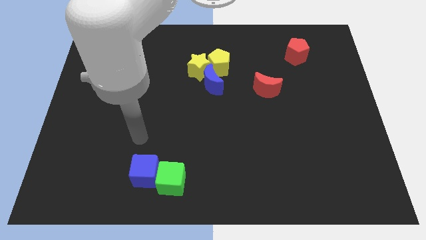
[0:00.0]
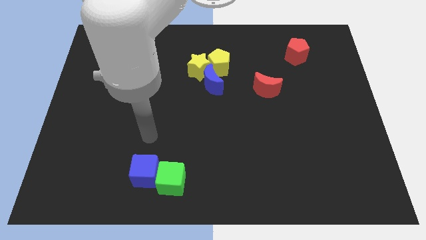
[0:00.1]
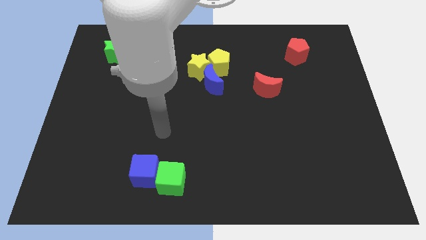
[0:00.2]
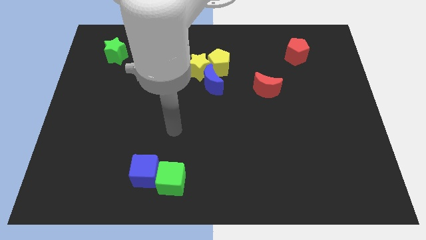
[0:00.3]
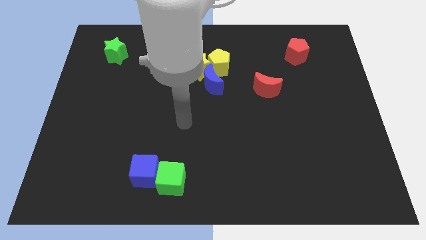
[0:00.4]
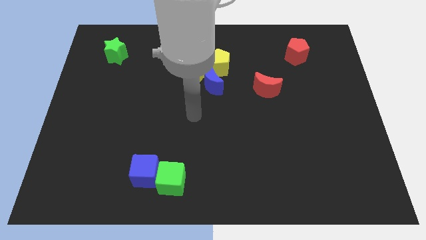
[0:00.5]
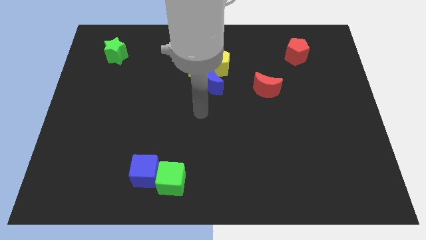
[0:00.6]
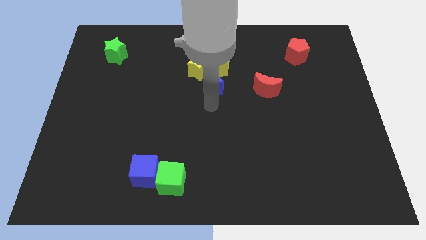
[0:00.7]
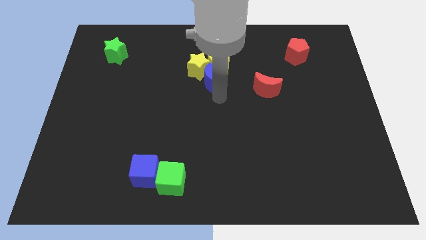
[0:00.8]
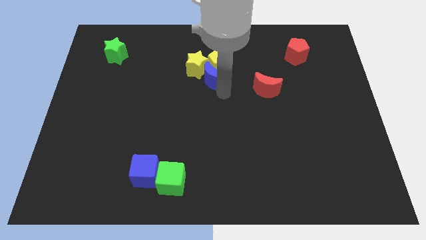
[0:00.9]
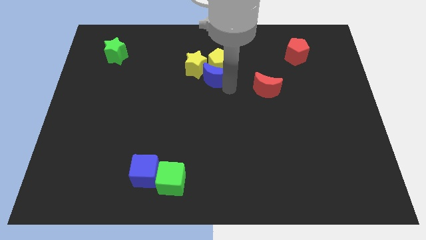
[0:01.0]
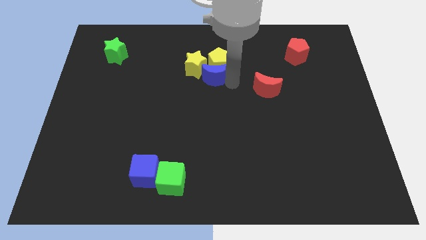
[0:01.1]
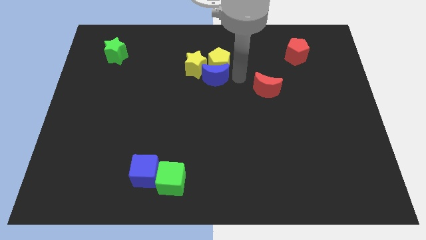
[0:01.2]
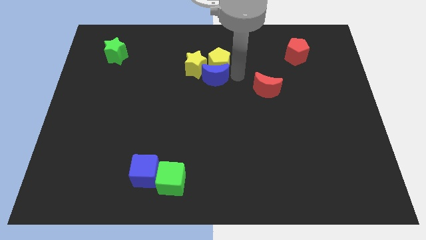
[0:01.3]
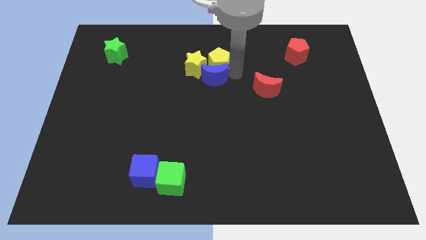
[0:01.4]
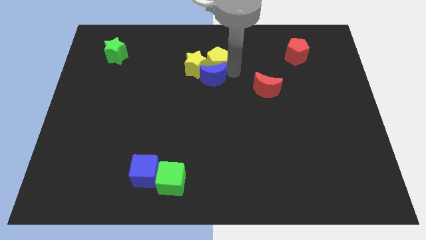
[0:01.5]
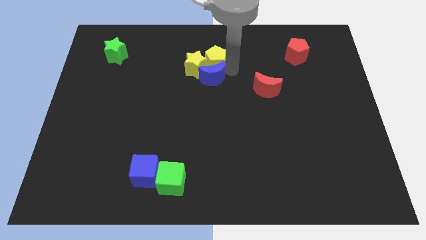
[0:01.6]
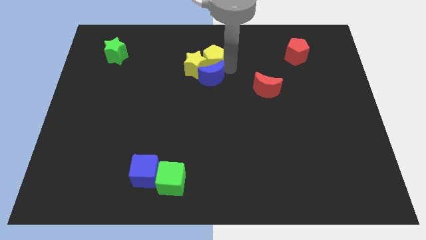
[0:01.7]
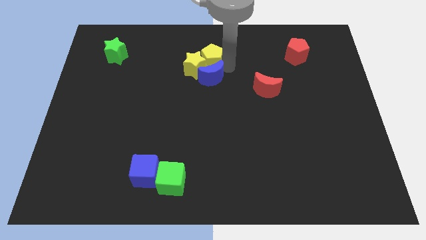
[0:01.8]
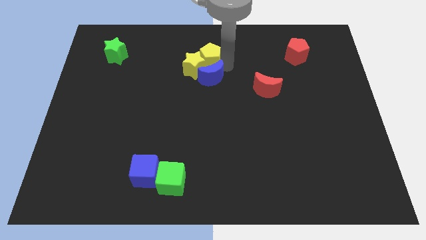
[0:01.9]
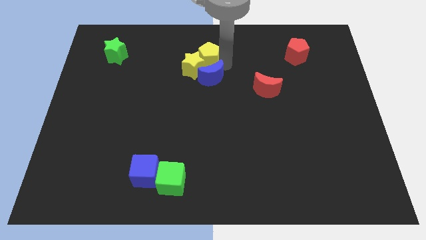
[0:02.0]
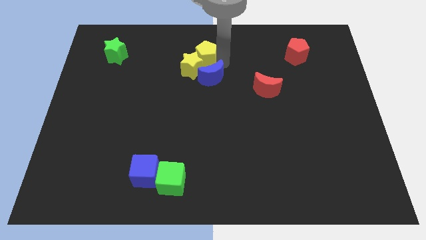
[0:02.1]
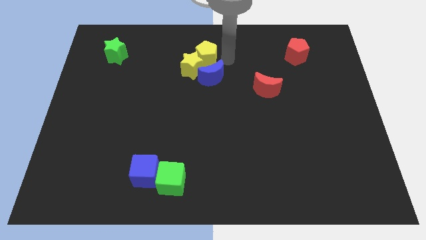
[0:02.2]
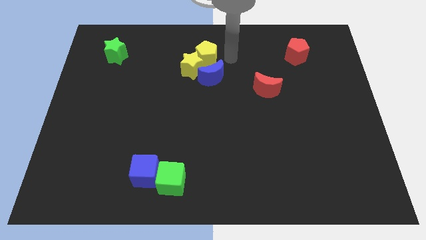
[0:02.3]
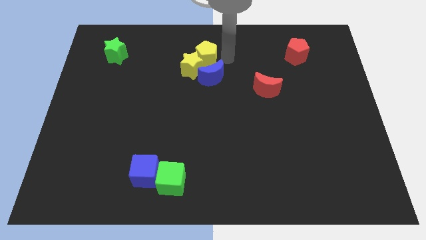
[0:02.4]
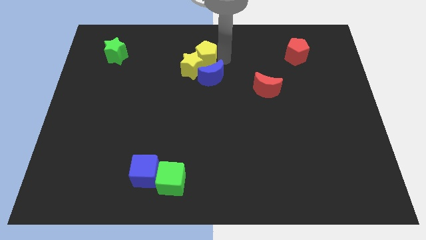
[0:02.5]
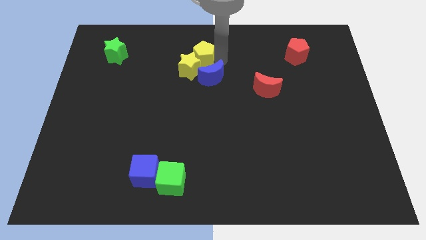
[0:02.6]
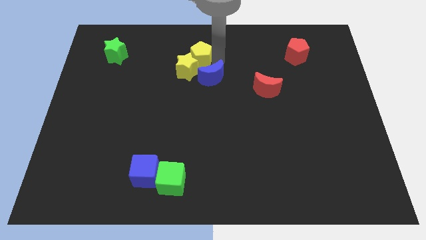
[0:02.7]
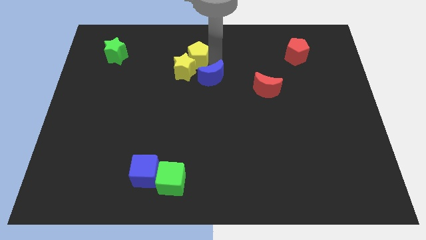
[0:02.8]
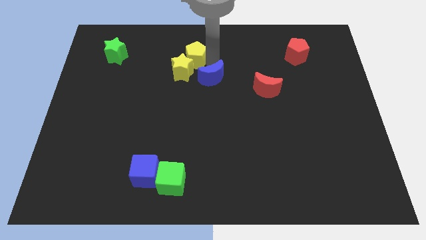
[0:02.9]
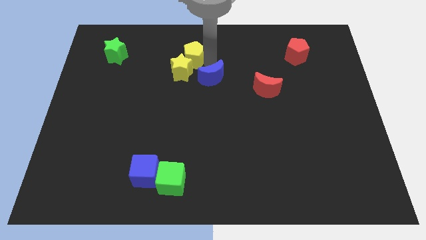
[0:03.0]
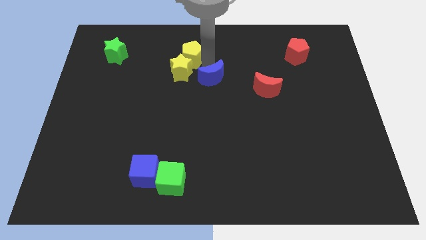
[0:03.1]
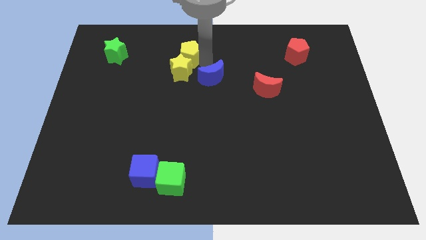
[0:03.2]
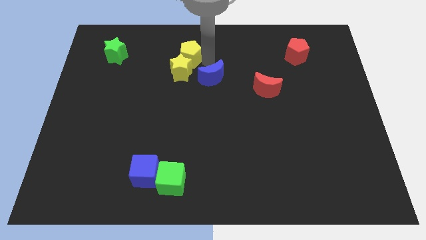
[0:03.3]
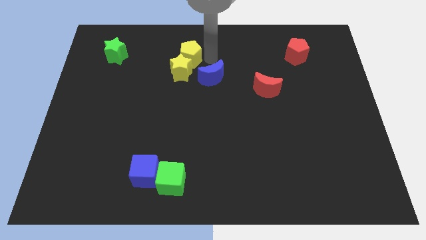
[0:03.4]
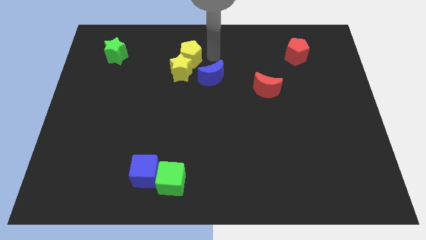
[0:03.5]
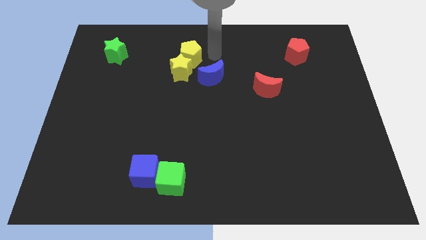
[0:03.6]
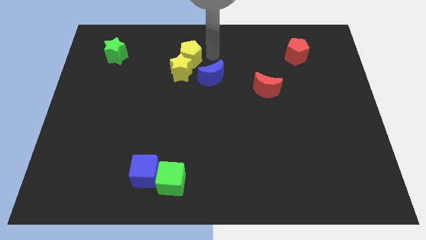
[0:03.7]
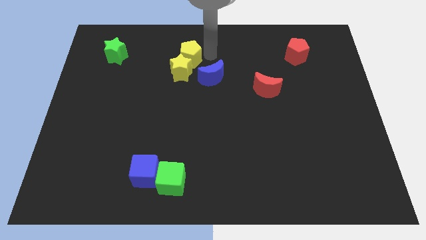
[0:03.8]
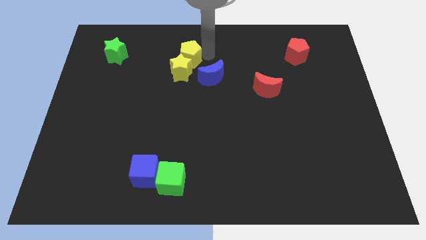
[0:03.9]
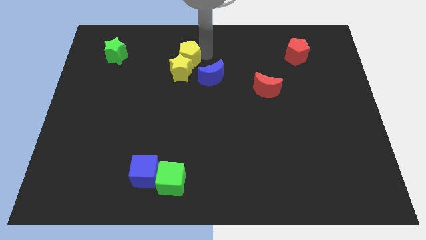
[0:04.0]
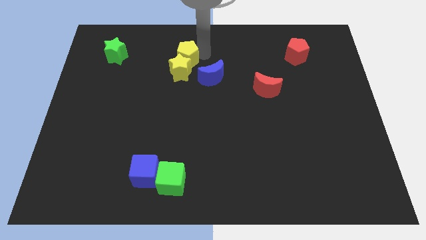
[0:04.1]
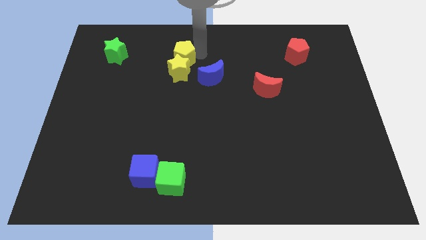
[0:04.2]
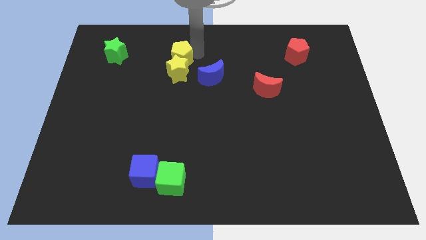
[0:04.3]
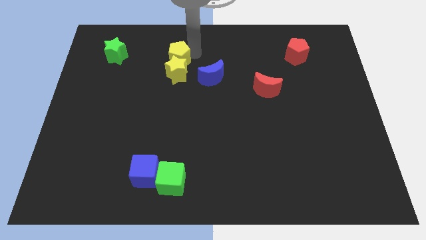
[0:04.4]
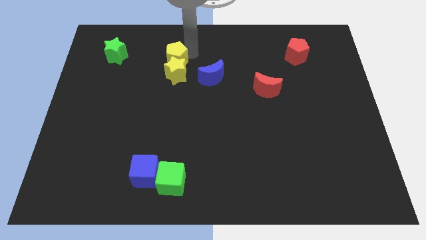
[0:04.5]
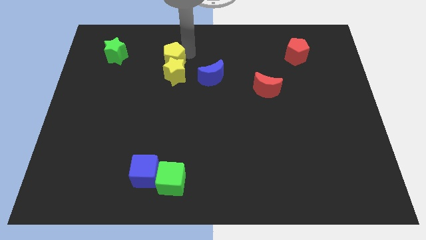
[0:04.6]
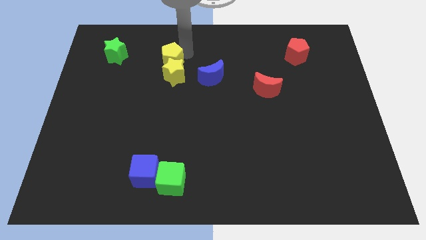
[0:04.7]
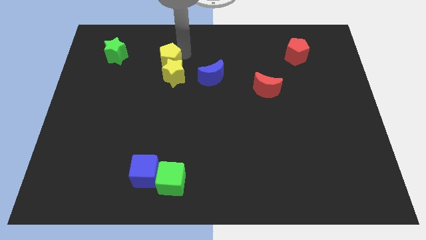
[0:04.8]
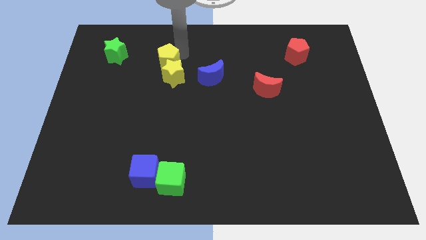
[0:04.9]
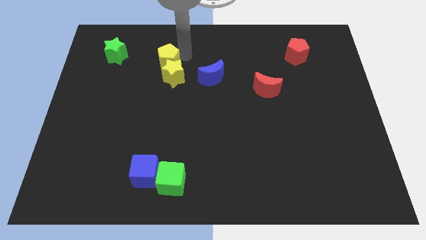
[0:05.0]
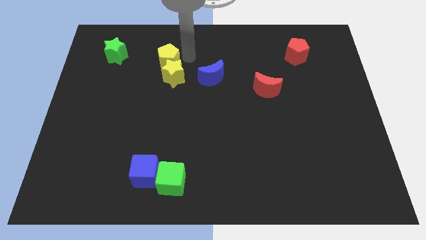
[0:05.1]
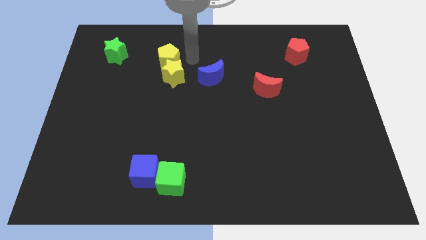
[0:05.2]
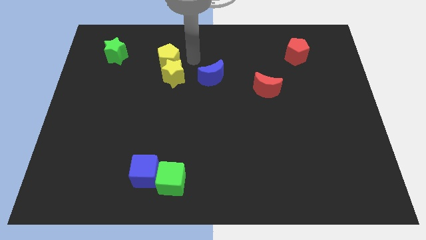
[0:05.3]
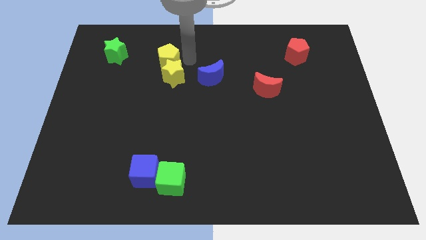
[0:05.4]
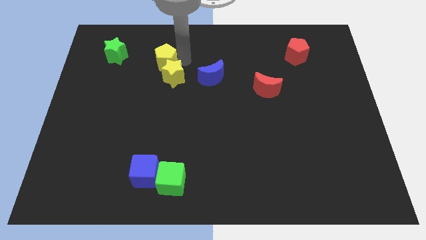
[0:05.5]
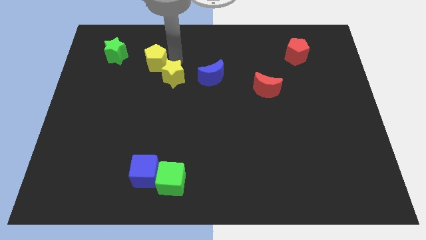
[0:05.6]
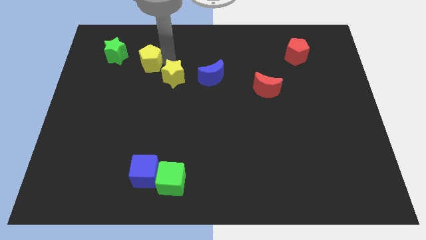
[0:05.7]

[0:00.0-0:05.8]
push the yellow pentagon diagonally down and to the right of the green star

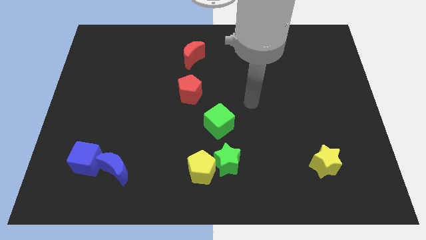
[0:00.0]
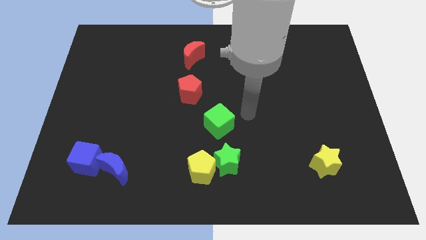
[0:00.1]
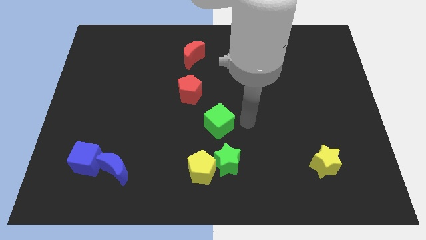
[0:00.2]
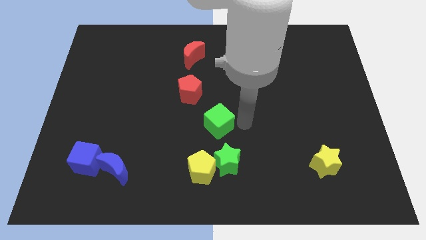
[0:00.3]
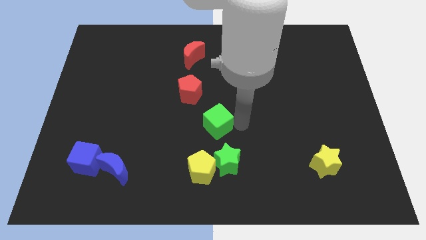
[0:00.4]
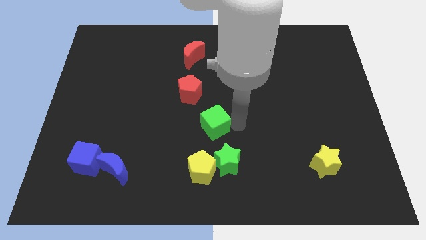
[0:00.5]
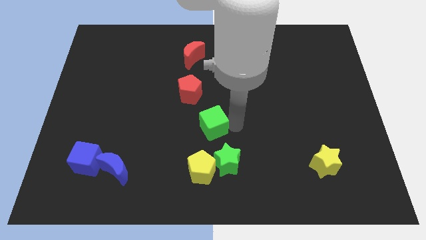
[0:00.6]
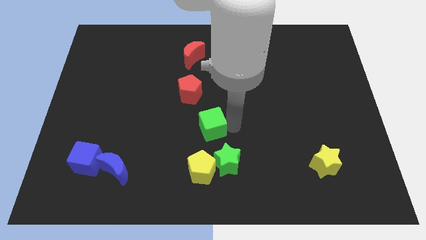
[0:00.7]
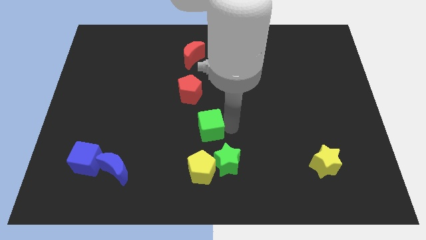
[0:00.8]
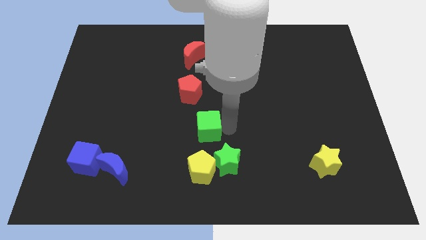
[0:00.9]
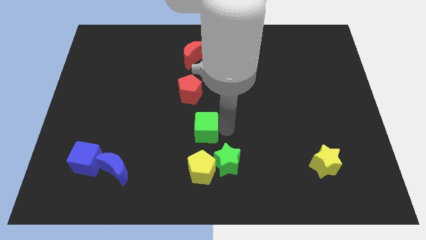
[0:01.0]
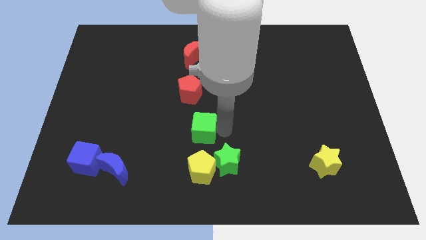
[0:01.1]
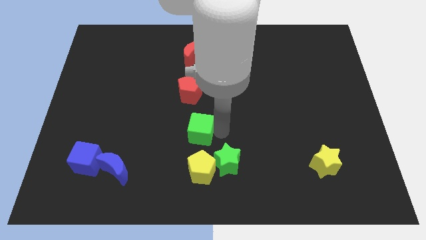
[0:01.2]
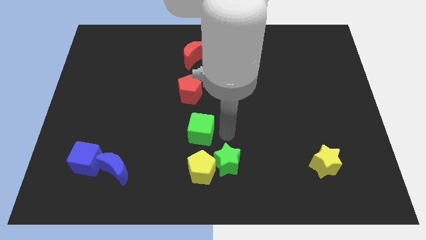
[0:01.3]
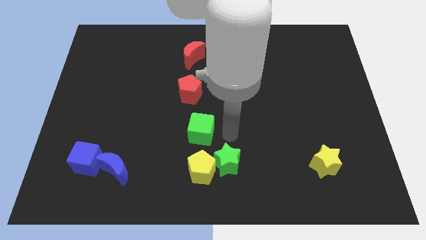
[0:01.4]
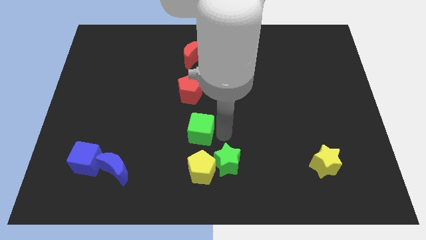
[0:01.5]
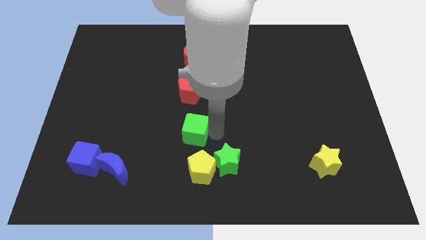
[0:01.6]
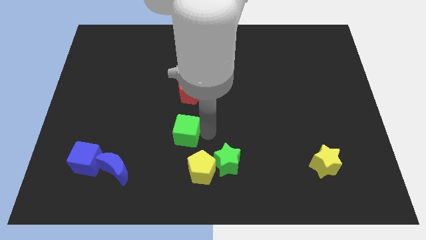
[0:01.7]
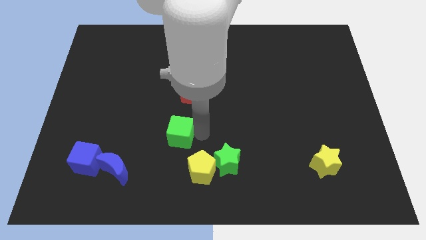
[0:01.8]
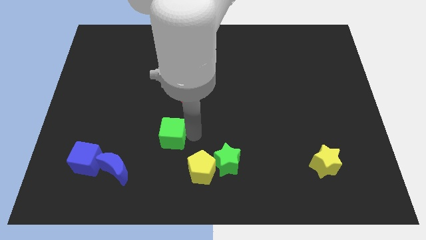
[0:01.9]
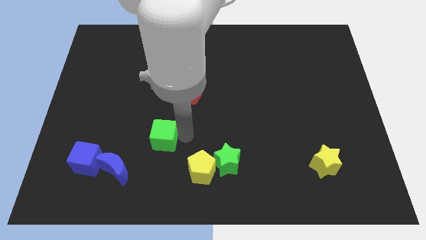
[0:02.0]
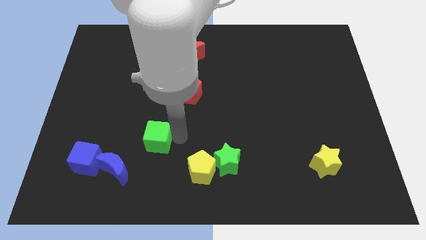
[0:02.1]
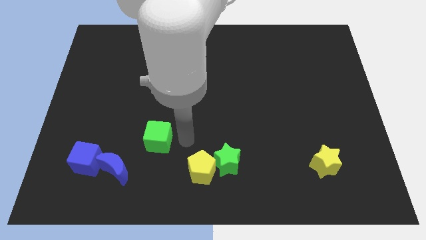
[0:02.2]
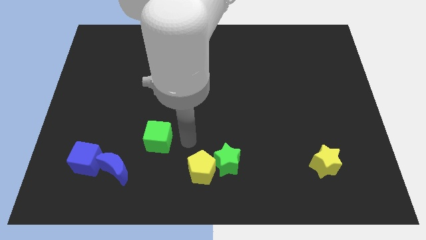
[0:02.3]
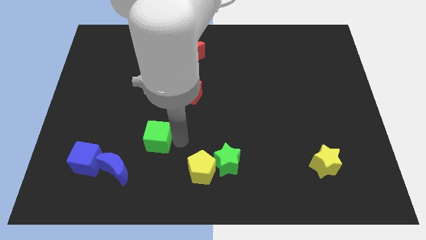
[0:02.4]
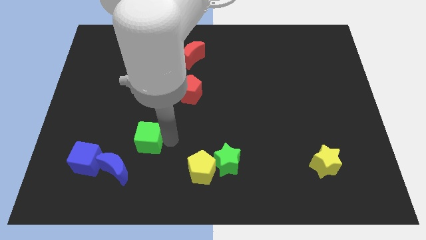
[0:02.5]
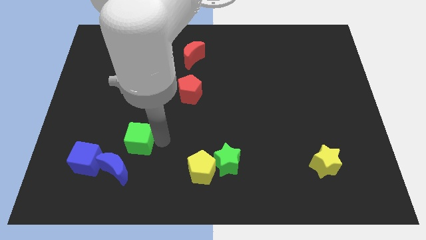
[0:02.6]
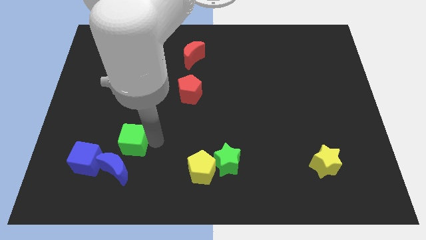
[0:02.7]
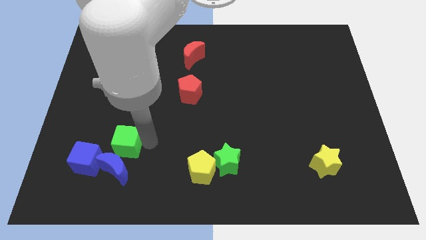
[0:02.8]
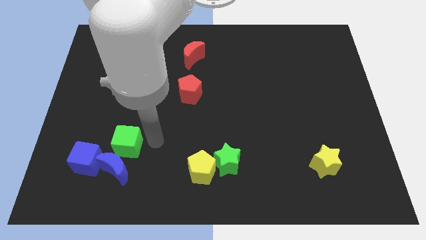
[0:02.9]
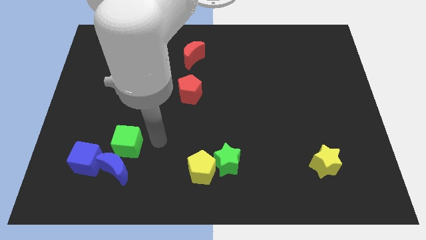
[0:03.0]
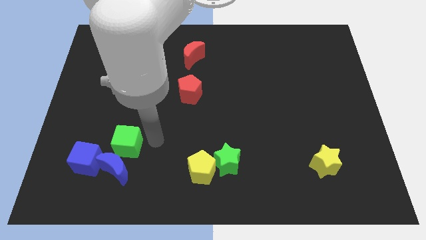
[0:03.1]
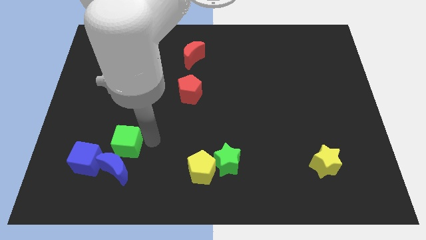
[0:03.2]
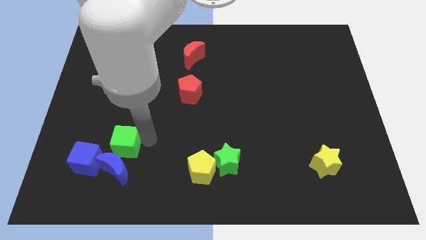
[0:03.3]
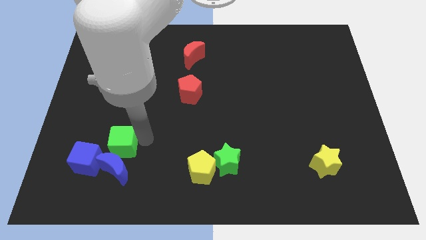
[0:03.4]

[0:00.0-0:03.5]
push the green cube to the top left of the blue moon
